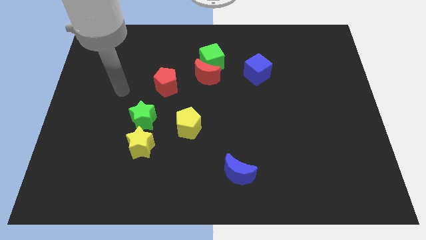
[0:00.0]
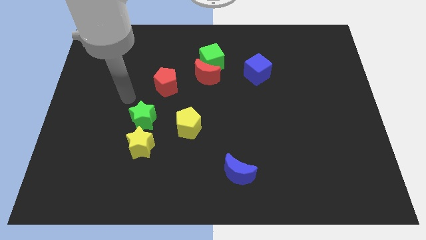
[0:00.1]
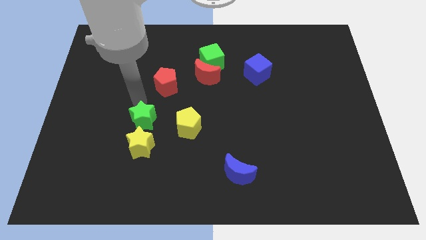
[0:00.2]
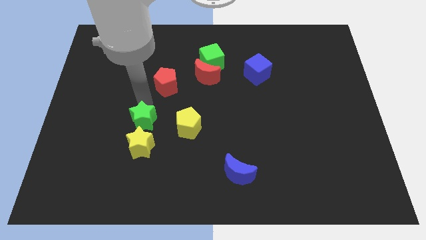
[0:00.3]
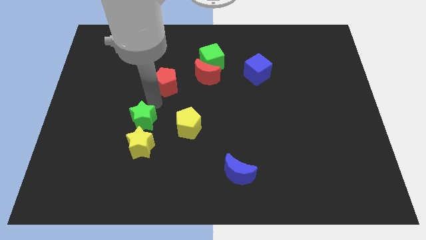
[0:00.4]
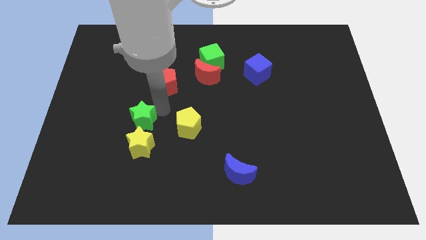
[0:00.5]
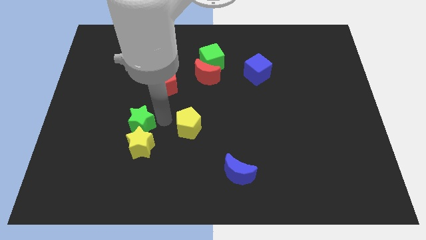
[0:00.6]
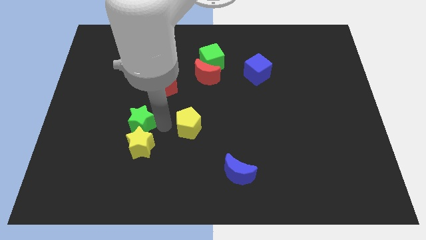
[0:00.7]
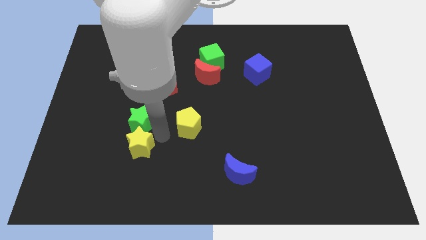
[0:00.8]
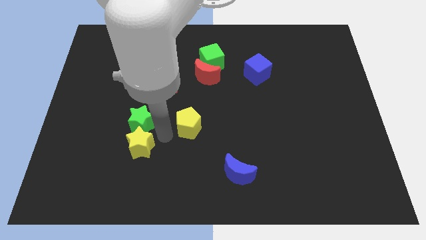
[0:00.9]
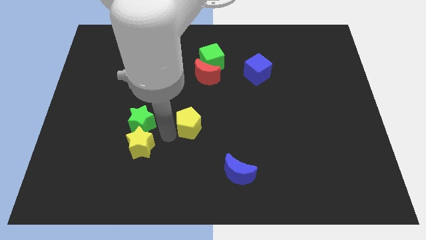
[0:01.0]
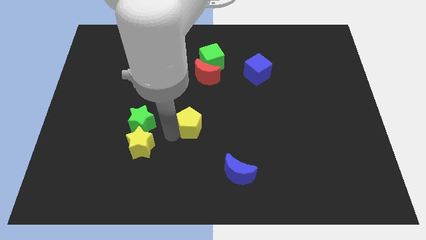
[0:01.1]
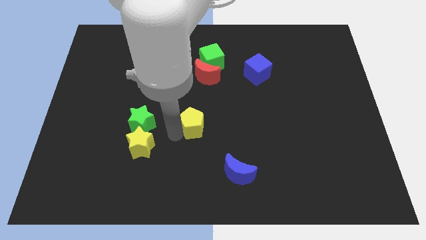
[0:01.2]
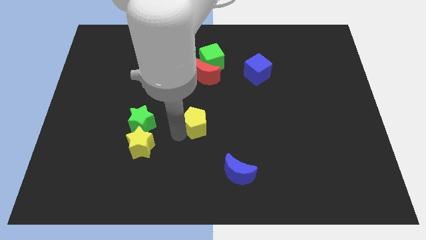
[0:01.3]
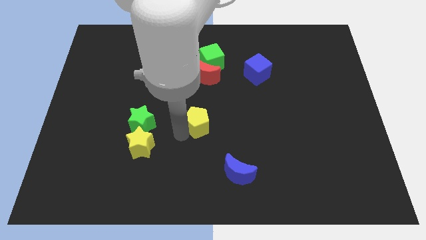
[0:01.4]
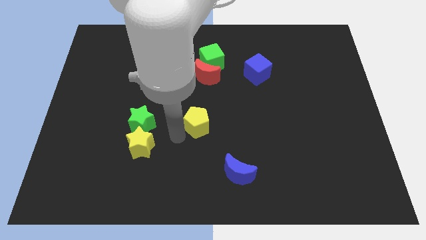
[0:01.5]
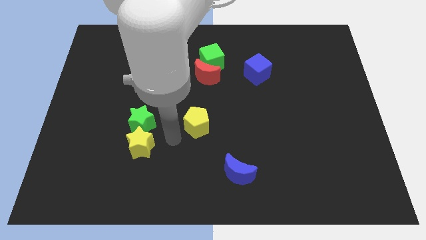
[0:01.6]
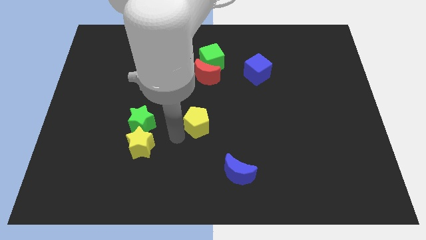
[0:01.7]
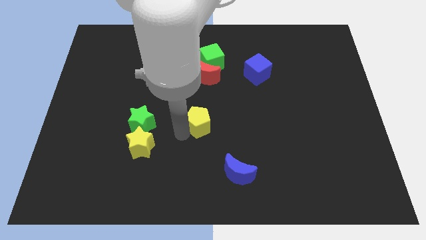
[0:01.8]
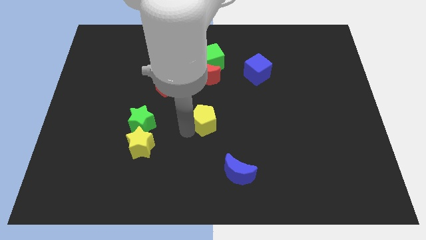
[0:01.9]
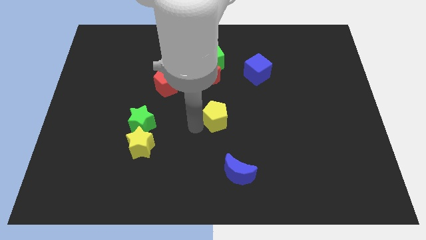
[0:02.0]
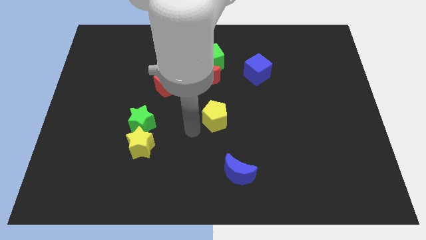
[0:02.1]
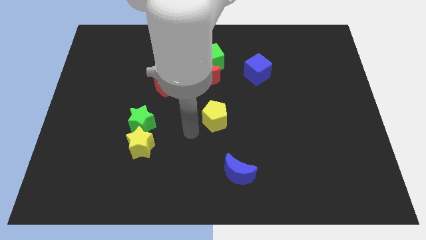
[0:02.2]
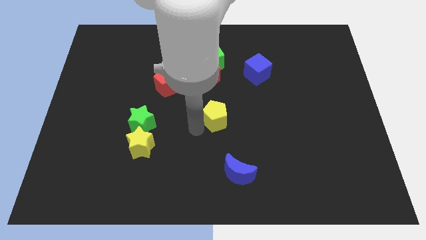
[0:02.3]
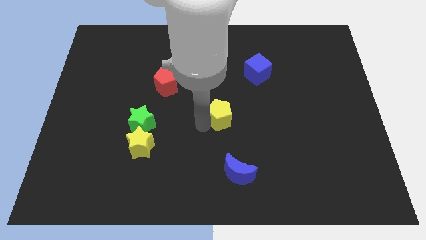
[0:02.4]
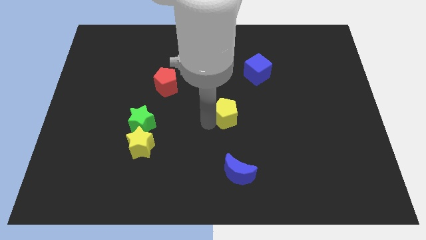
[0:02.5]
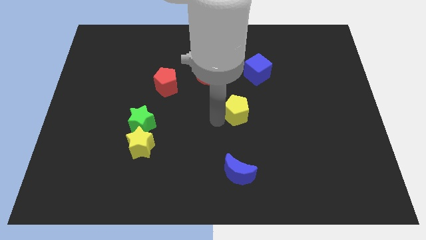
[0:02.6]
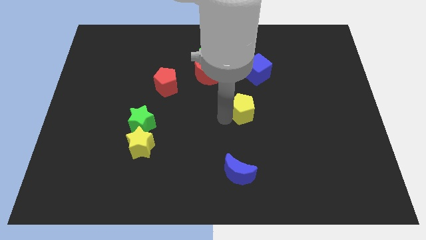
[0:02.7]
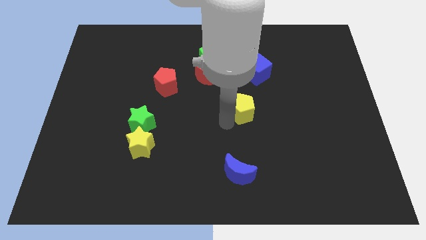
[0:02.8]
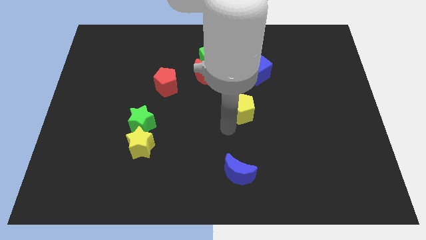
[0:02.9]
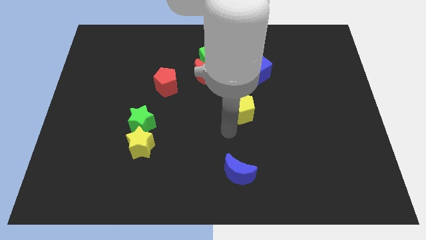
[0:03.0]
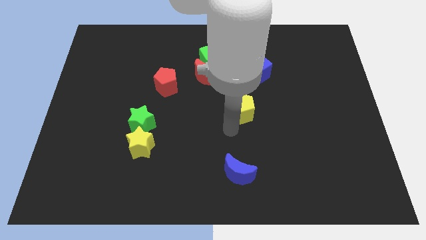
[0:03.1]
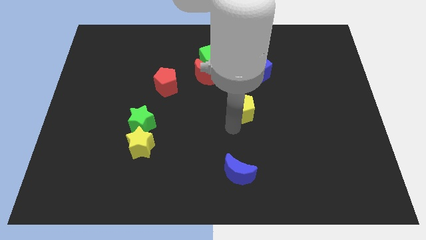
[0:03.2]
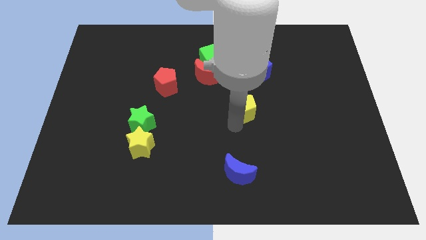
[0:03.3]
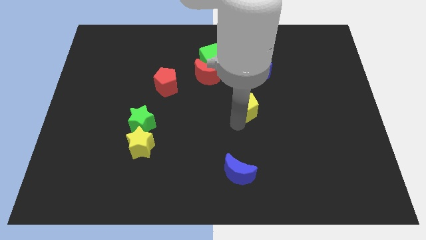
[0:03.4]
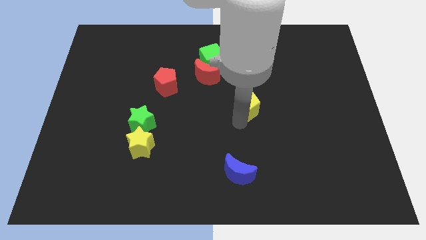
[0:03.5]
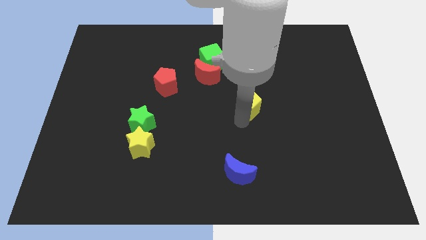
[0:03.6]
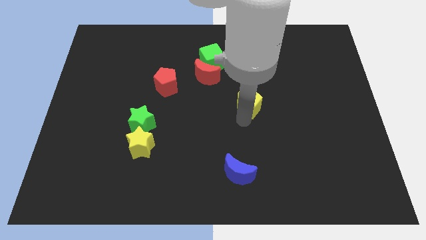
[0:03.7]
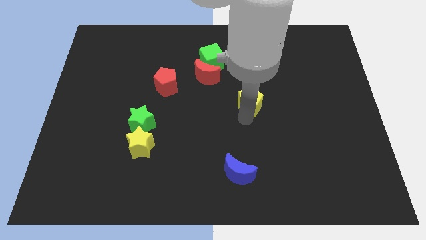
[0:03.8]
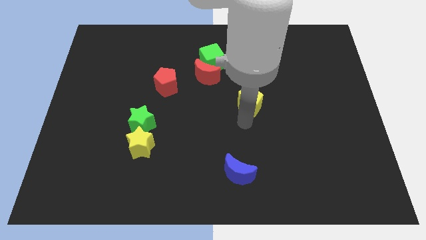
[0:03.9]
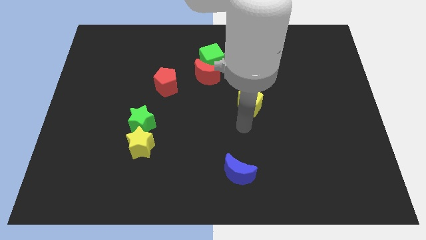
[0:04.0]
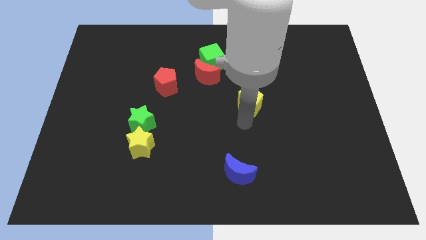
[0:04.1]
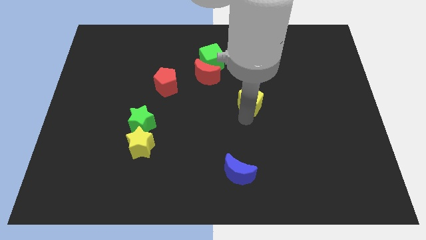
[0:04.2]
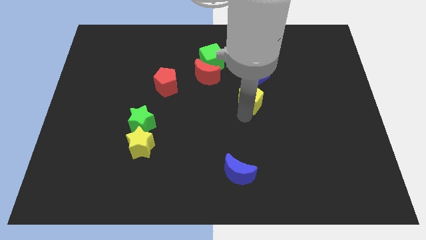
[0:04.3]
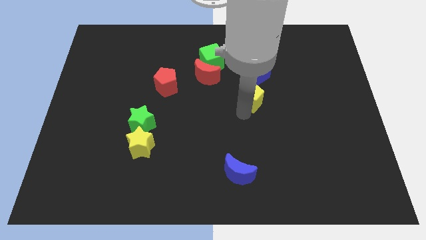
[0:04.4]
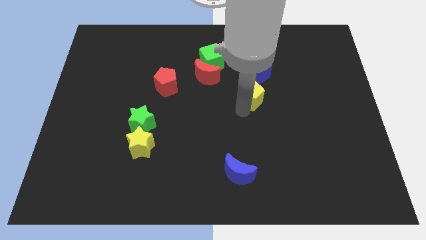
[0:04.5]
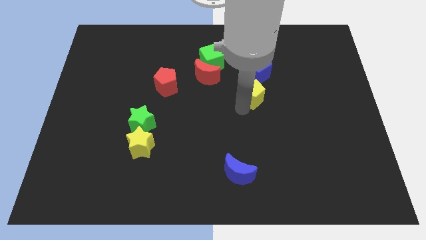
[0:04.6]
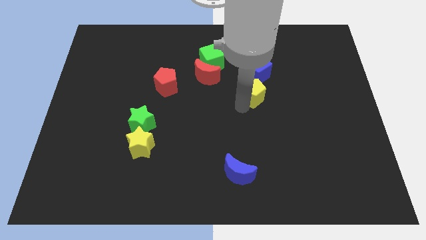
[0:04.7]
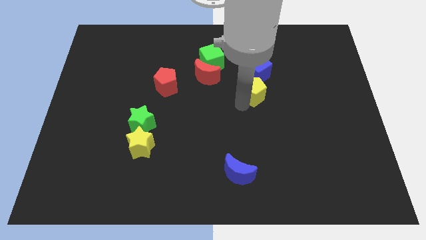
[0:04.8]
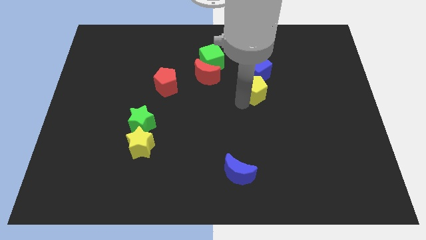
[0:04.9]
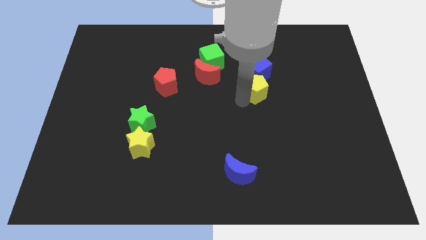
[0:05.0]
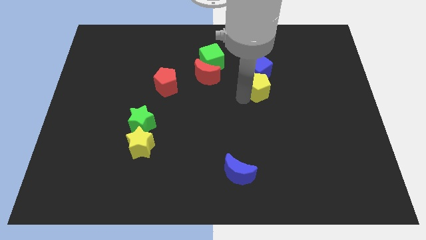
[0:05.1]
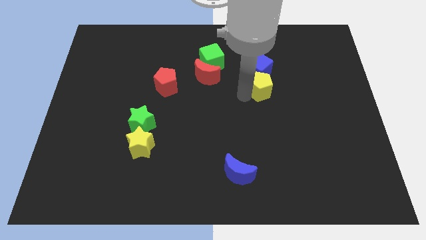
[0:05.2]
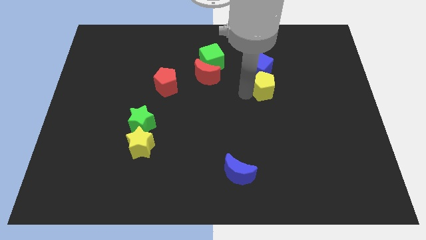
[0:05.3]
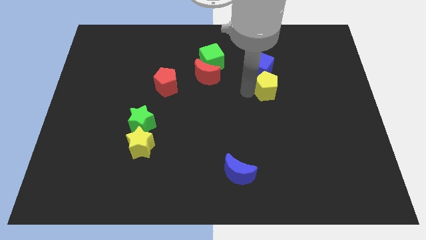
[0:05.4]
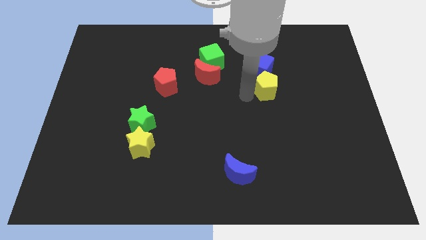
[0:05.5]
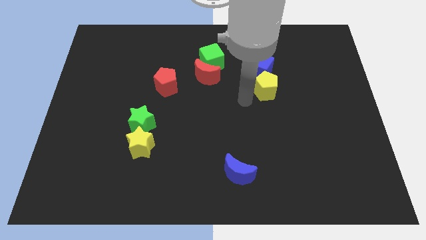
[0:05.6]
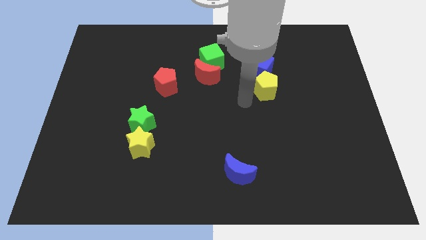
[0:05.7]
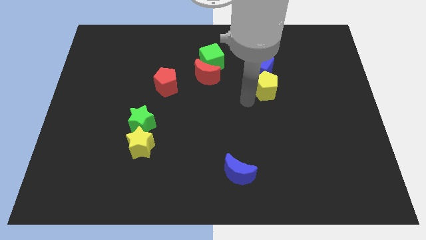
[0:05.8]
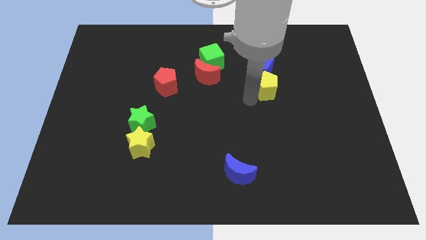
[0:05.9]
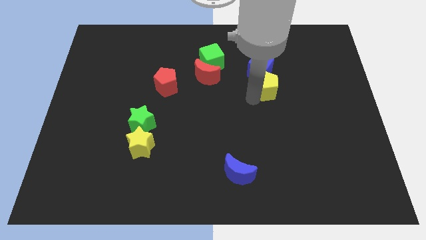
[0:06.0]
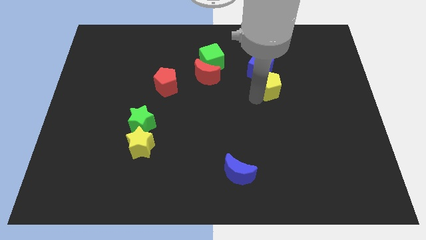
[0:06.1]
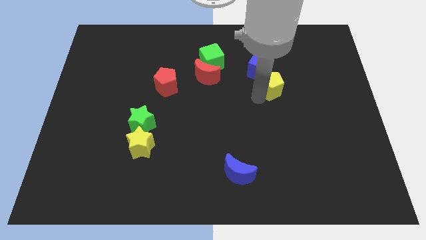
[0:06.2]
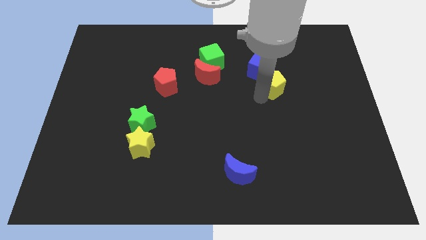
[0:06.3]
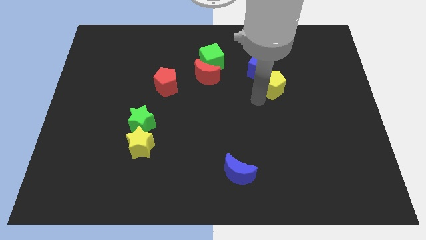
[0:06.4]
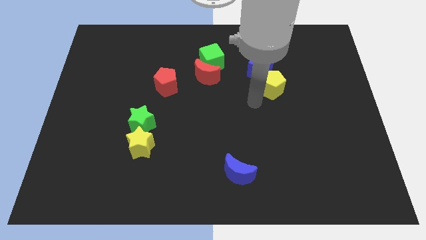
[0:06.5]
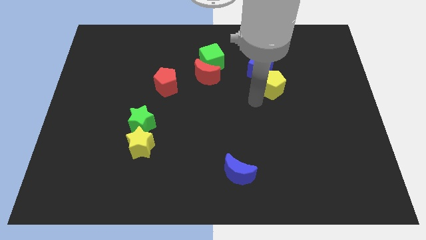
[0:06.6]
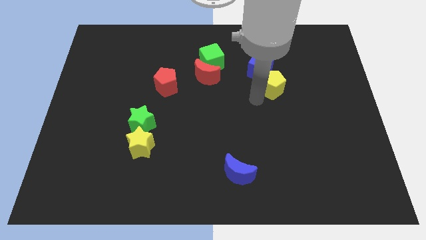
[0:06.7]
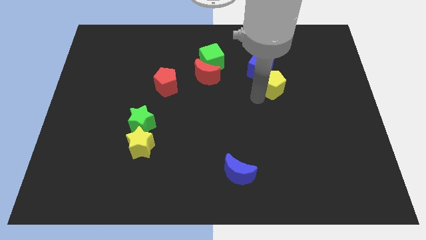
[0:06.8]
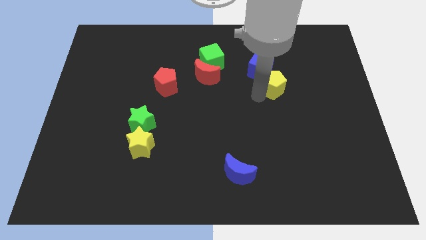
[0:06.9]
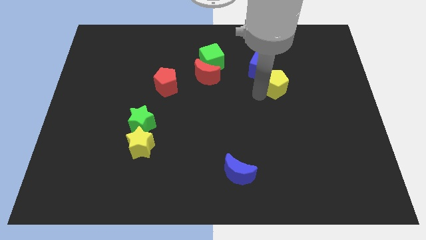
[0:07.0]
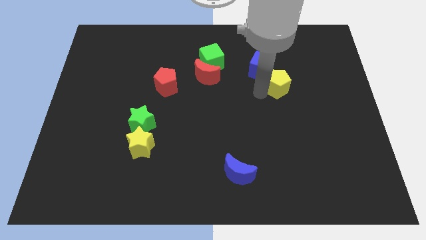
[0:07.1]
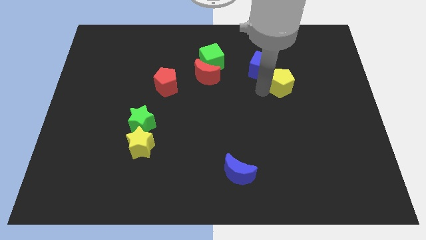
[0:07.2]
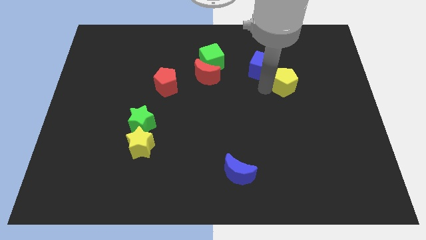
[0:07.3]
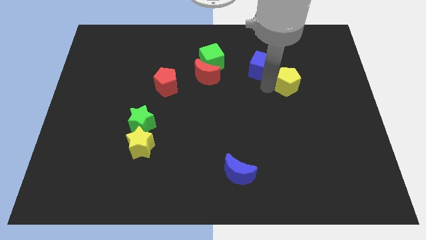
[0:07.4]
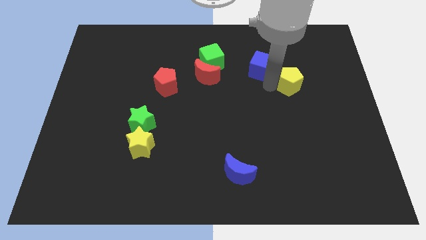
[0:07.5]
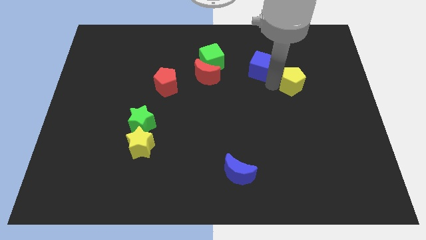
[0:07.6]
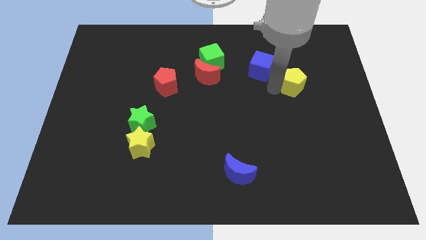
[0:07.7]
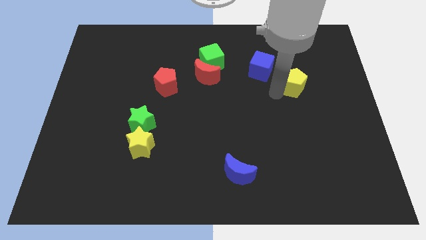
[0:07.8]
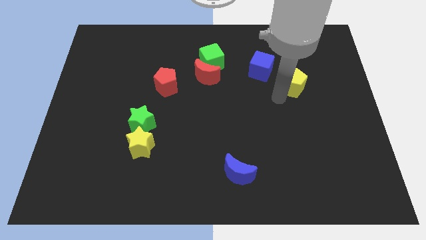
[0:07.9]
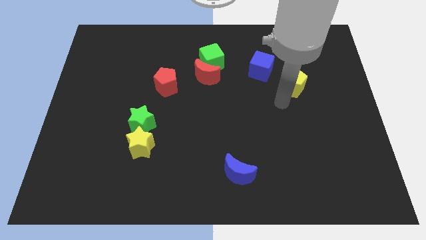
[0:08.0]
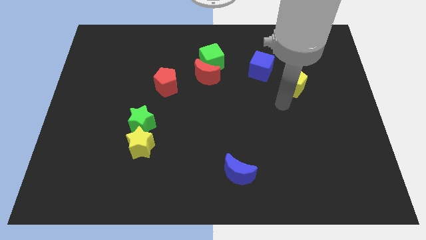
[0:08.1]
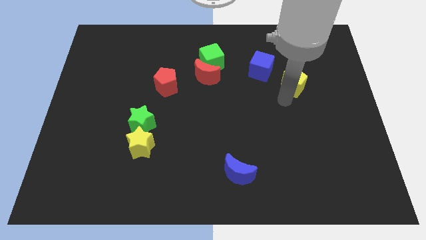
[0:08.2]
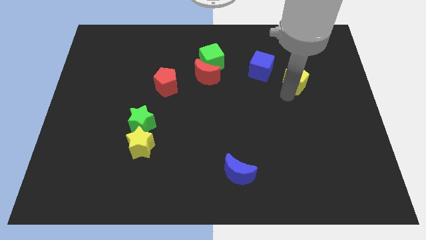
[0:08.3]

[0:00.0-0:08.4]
put the yellow pentagon right of the blue cube
